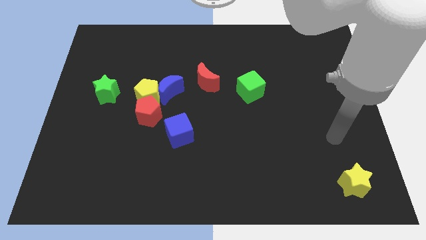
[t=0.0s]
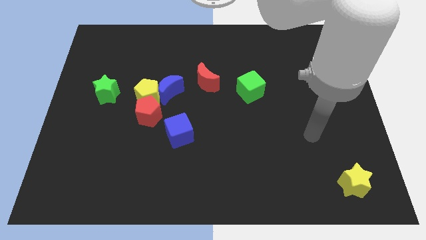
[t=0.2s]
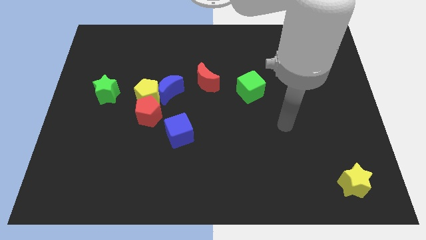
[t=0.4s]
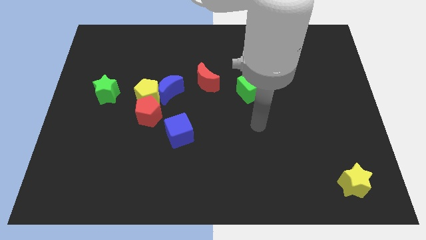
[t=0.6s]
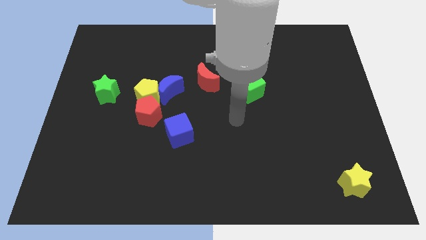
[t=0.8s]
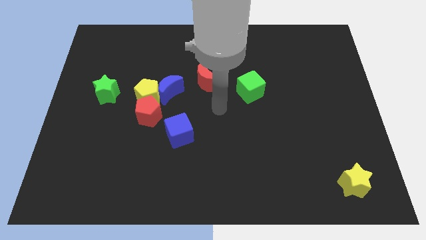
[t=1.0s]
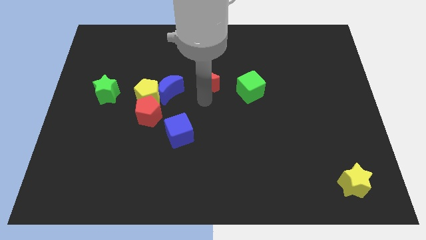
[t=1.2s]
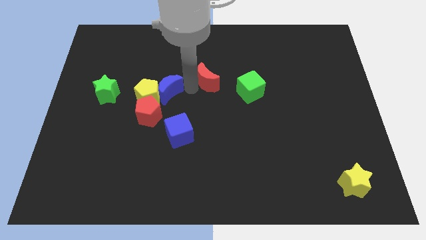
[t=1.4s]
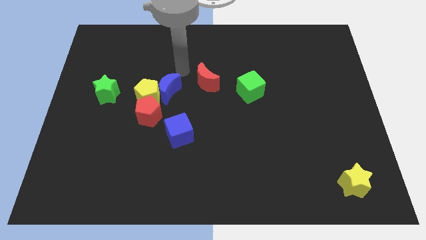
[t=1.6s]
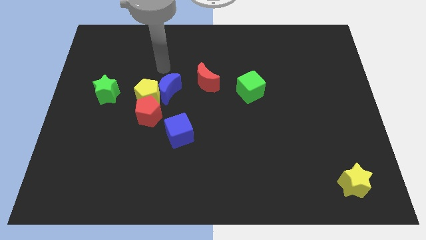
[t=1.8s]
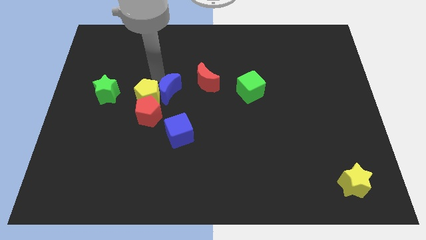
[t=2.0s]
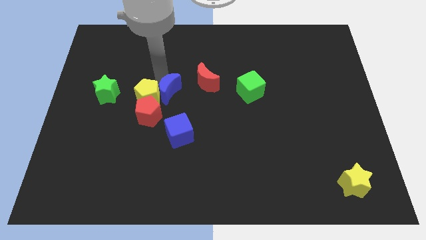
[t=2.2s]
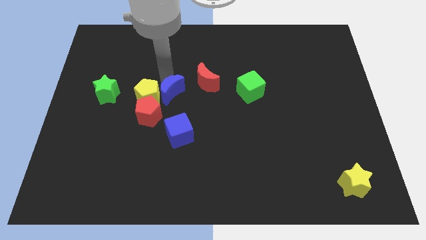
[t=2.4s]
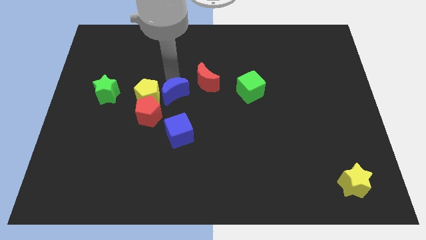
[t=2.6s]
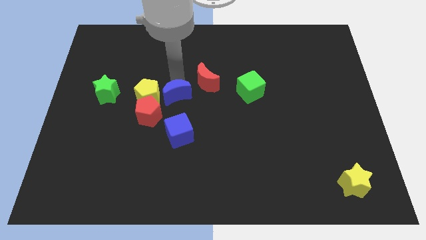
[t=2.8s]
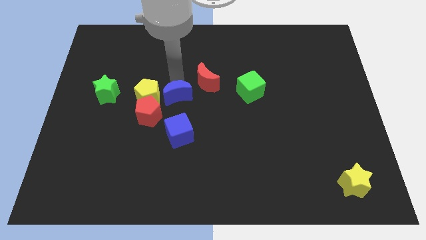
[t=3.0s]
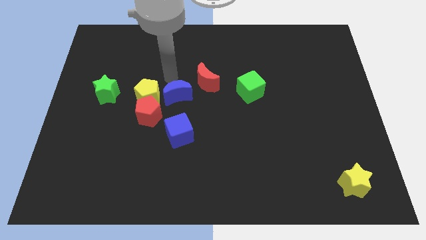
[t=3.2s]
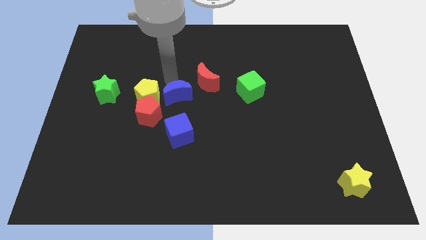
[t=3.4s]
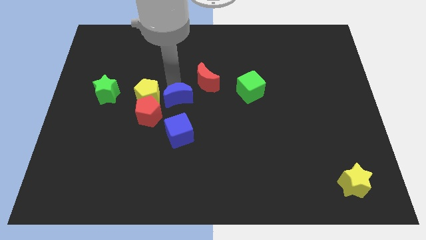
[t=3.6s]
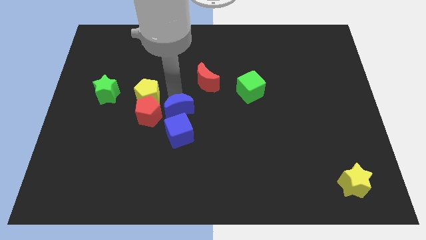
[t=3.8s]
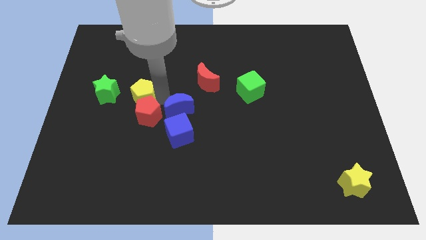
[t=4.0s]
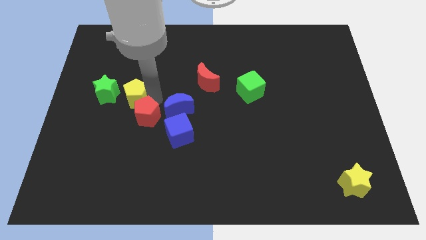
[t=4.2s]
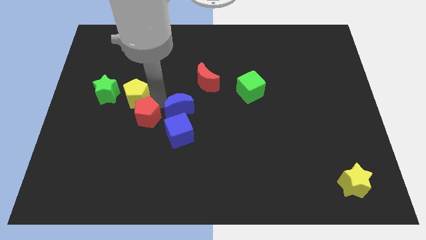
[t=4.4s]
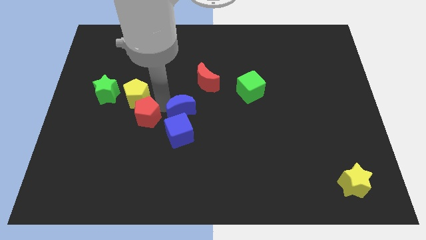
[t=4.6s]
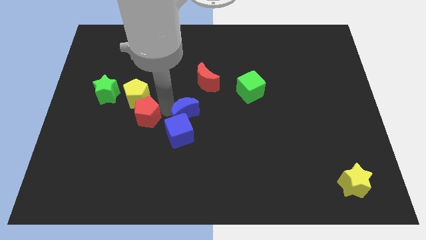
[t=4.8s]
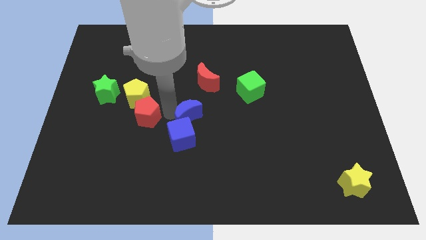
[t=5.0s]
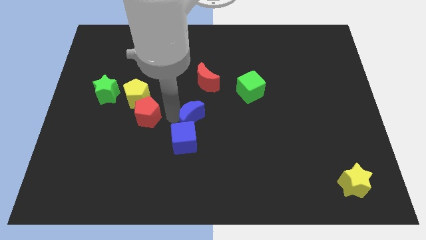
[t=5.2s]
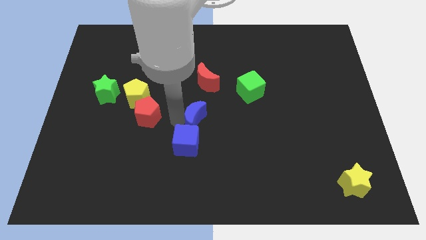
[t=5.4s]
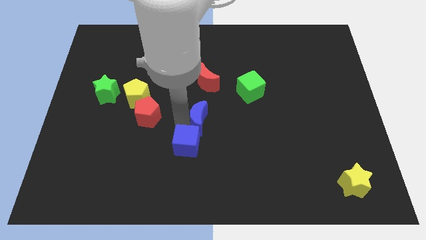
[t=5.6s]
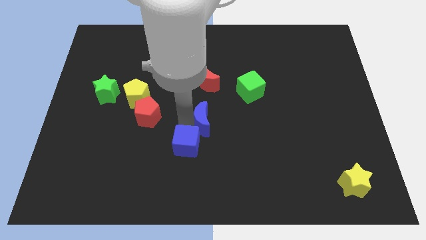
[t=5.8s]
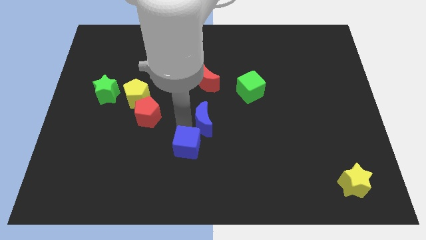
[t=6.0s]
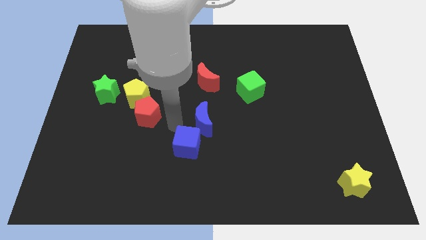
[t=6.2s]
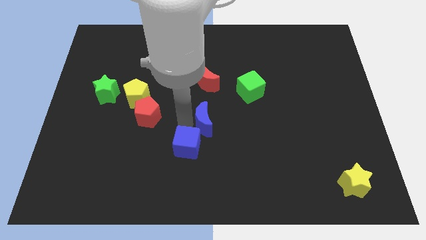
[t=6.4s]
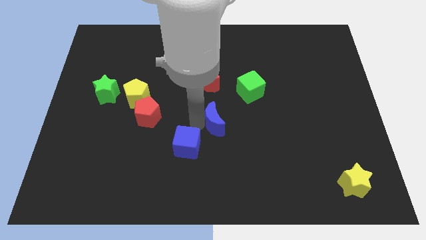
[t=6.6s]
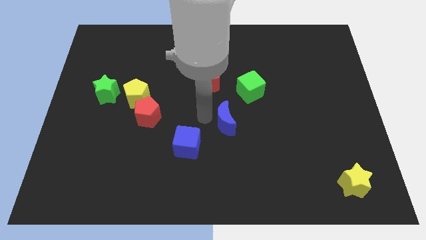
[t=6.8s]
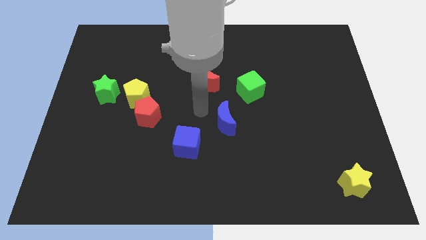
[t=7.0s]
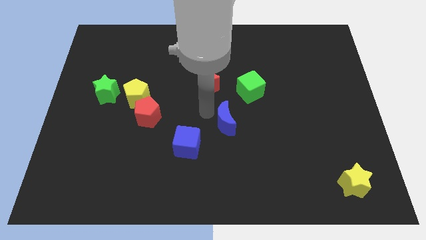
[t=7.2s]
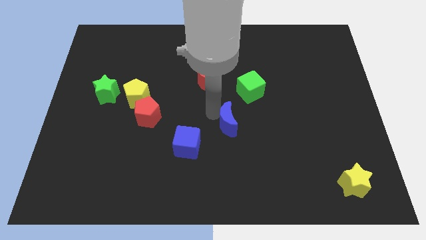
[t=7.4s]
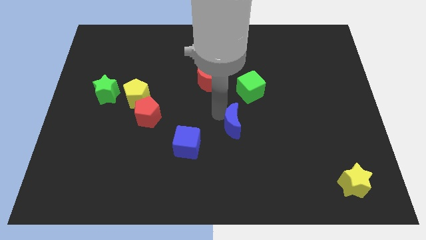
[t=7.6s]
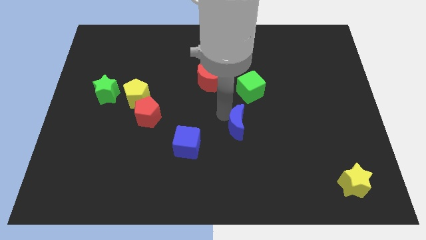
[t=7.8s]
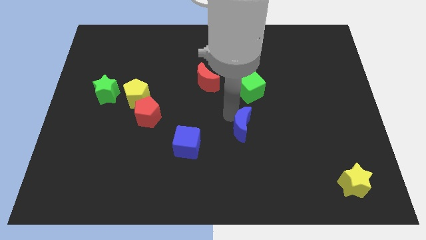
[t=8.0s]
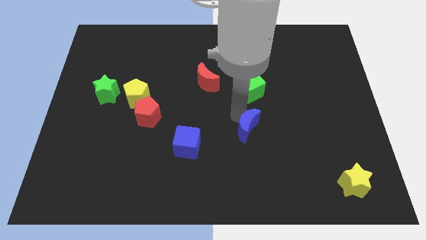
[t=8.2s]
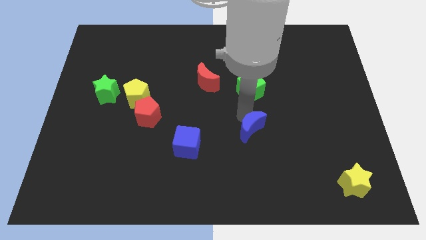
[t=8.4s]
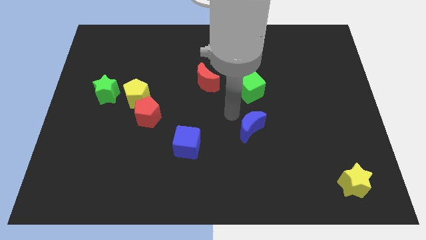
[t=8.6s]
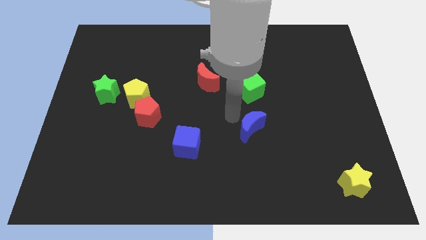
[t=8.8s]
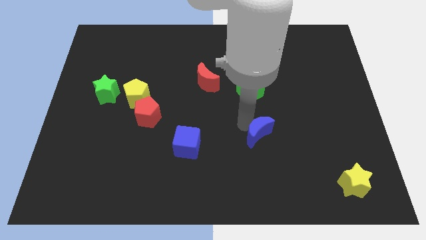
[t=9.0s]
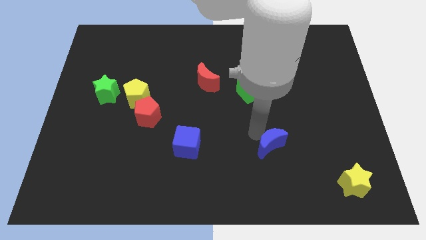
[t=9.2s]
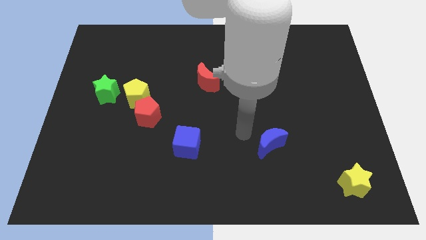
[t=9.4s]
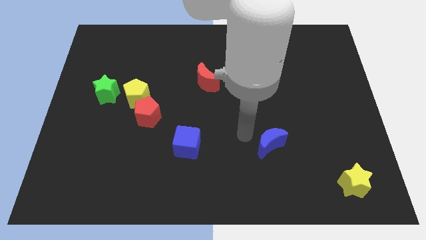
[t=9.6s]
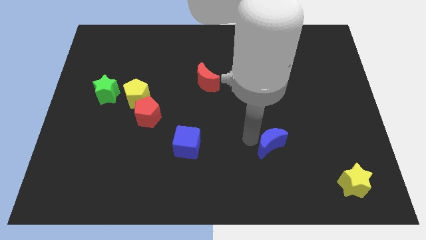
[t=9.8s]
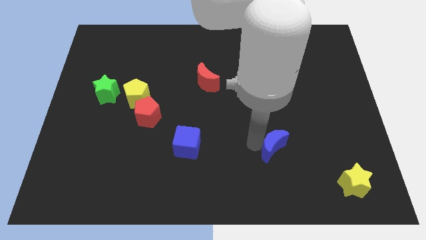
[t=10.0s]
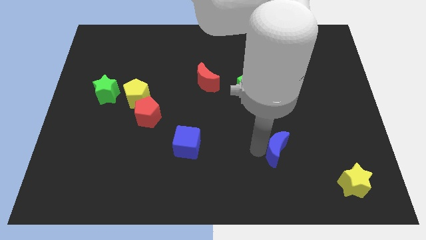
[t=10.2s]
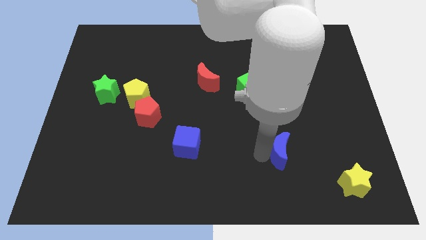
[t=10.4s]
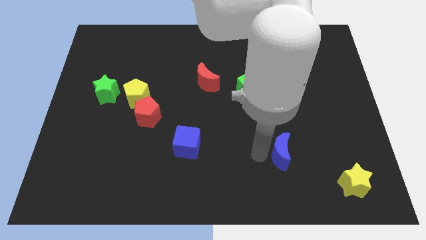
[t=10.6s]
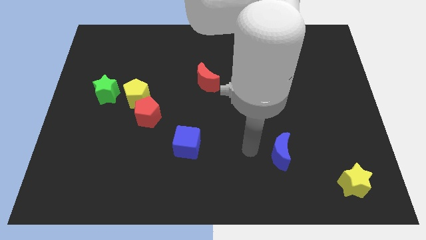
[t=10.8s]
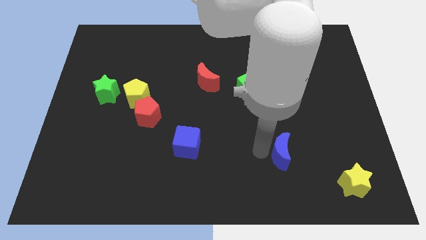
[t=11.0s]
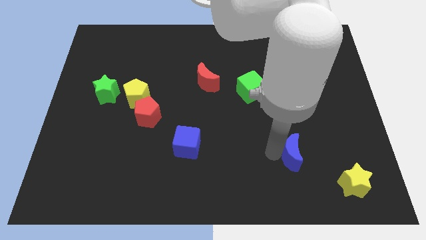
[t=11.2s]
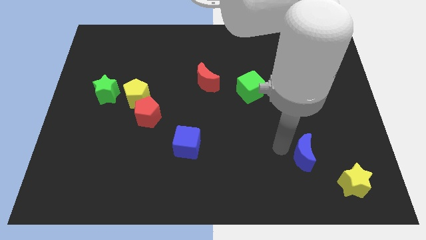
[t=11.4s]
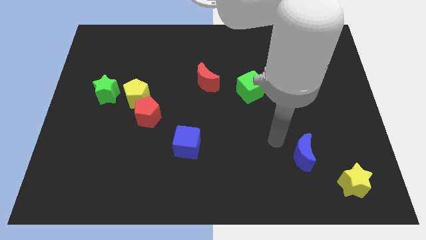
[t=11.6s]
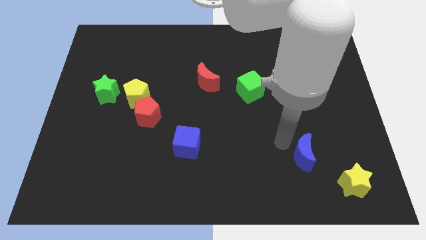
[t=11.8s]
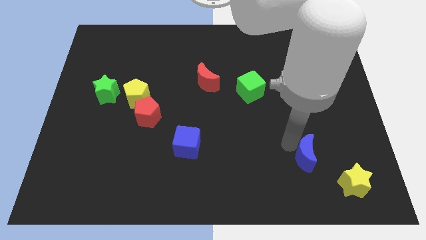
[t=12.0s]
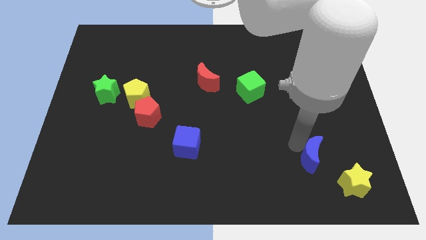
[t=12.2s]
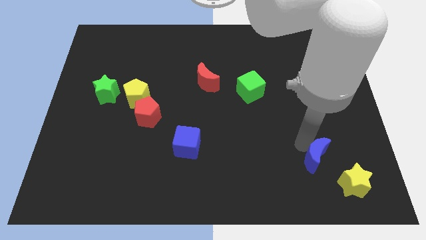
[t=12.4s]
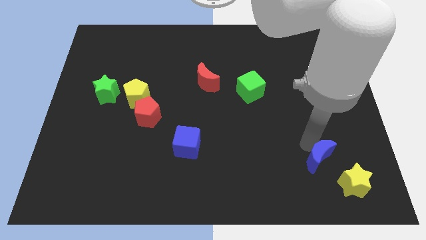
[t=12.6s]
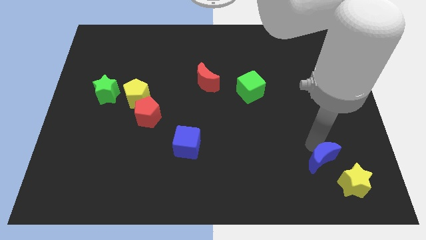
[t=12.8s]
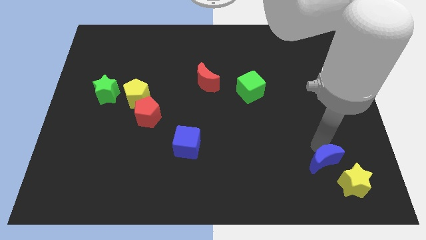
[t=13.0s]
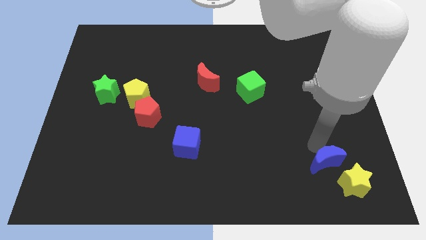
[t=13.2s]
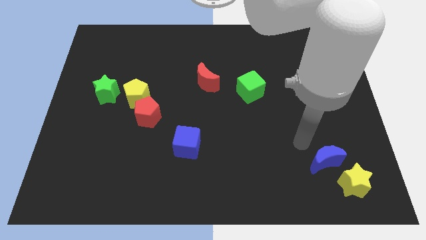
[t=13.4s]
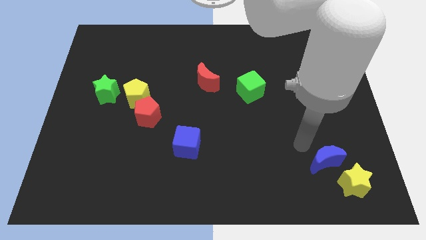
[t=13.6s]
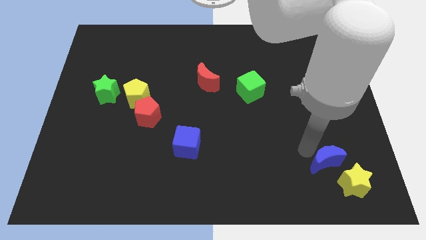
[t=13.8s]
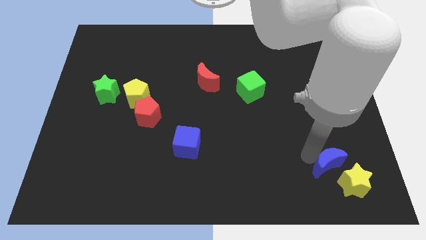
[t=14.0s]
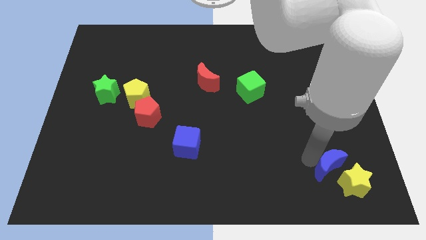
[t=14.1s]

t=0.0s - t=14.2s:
push the blue moon to the yellow star
